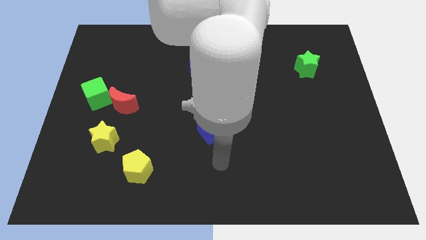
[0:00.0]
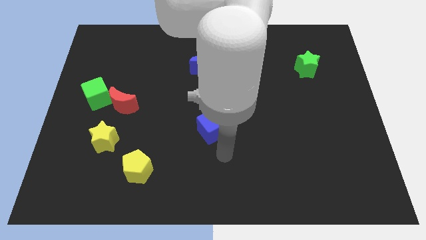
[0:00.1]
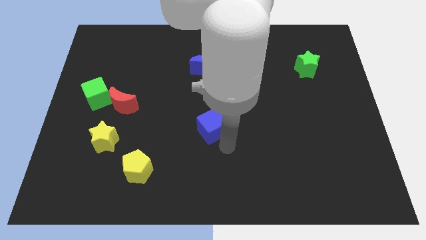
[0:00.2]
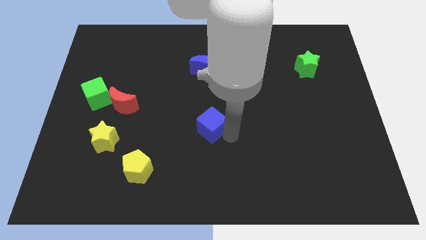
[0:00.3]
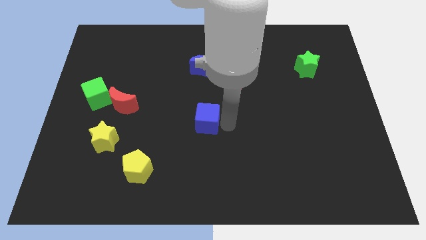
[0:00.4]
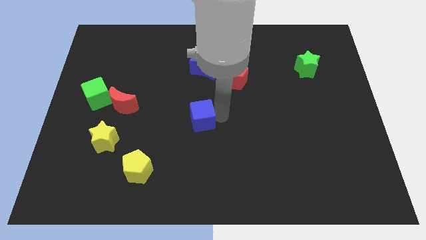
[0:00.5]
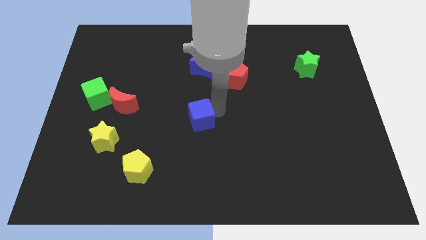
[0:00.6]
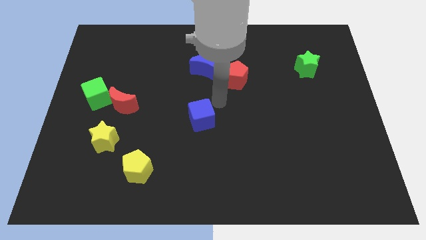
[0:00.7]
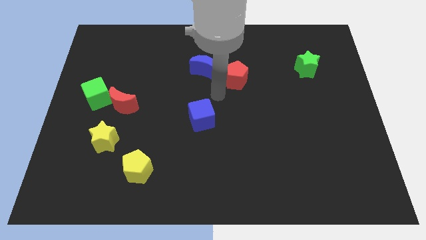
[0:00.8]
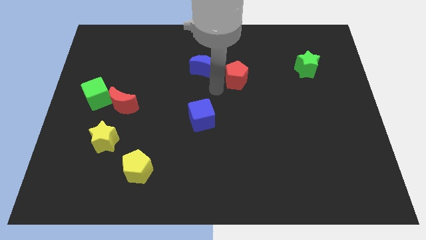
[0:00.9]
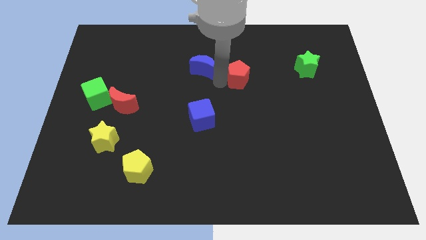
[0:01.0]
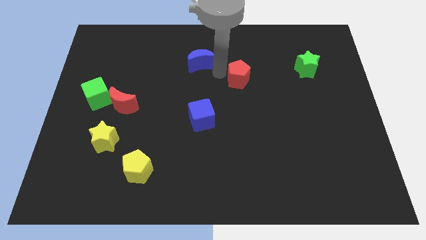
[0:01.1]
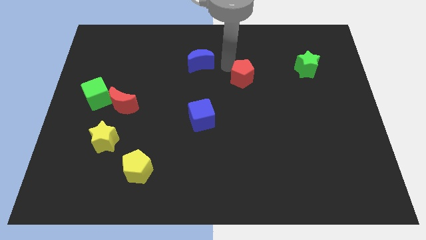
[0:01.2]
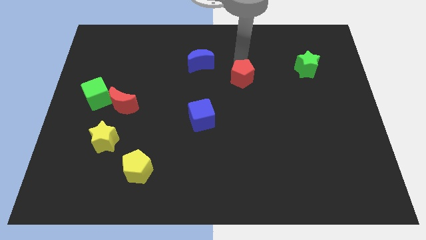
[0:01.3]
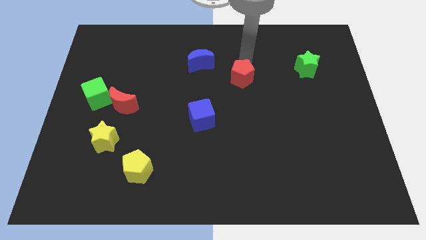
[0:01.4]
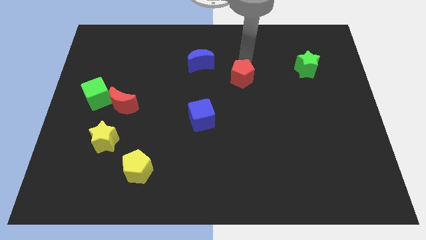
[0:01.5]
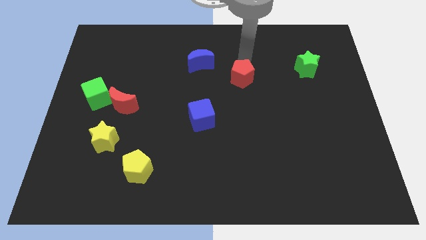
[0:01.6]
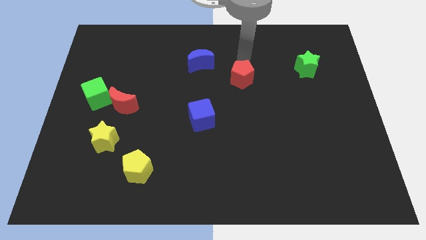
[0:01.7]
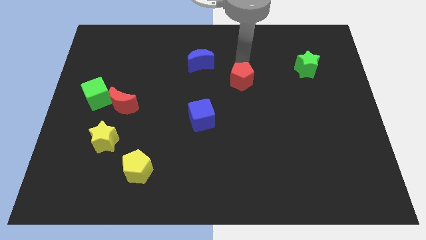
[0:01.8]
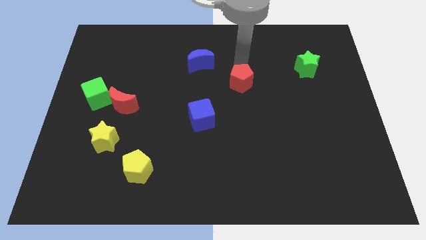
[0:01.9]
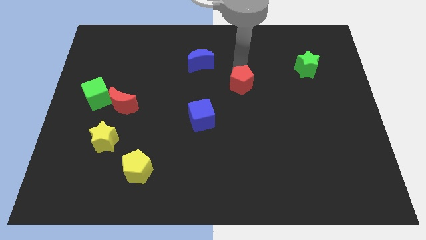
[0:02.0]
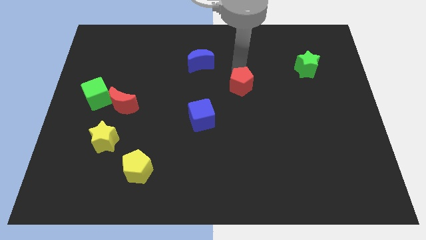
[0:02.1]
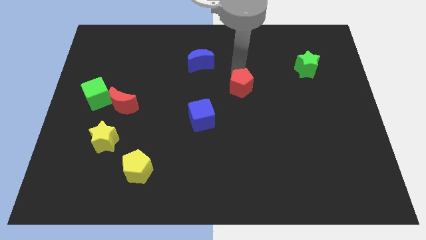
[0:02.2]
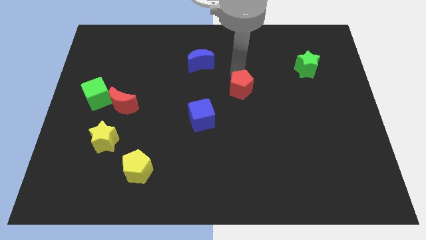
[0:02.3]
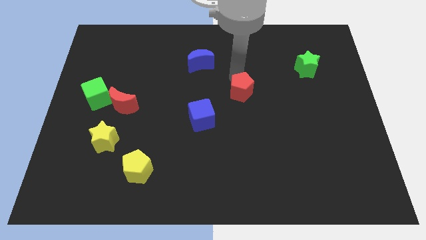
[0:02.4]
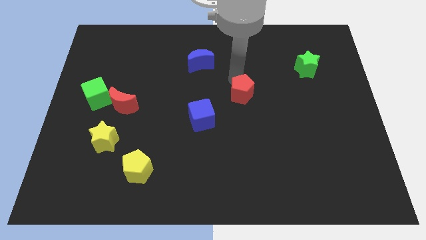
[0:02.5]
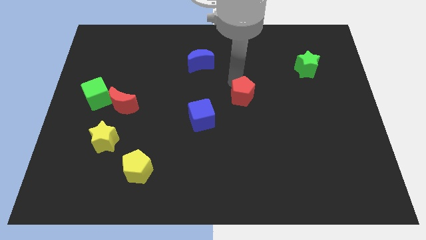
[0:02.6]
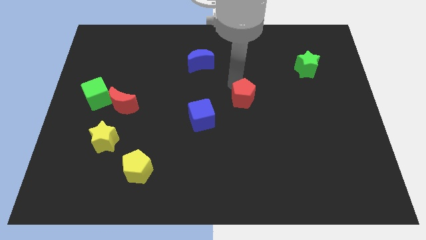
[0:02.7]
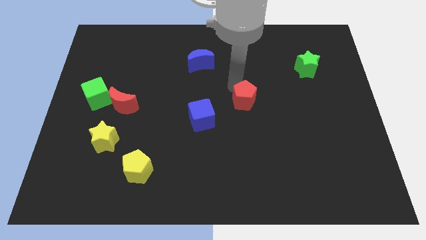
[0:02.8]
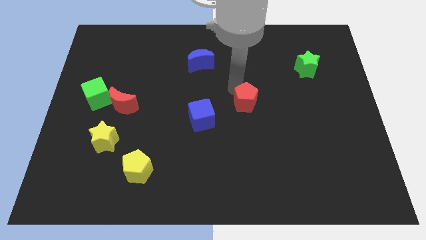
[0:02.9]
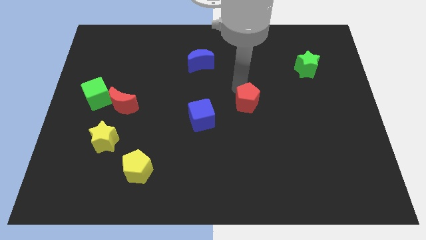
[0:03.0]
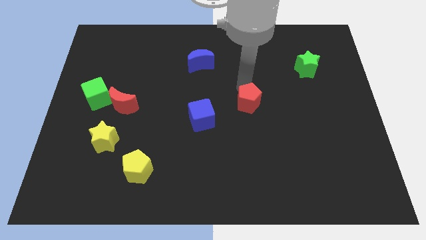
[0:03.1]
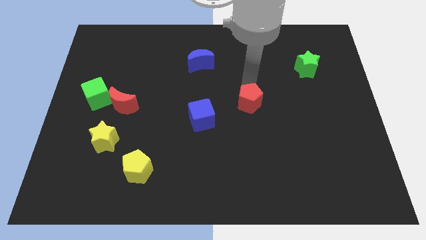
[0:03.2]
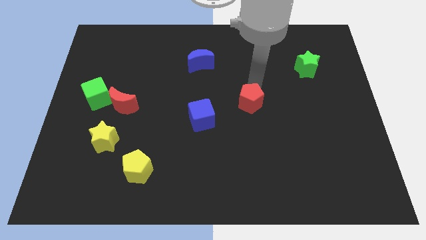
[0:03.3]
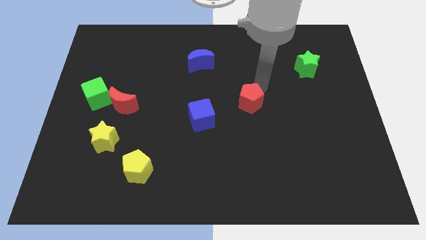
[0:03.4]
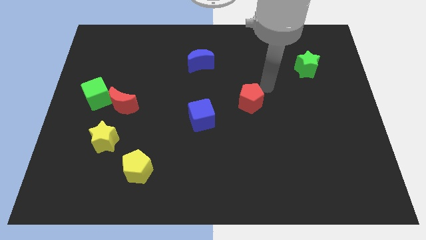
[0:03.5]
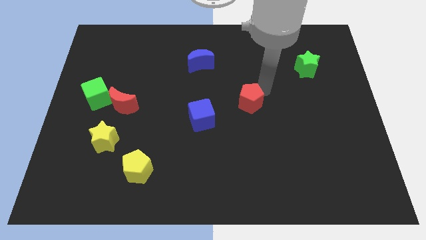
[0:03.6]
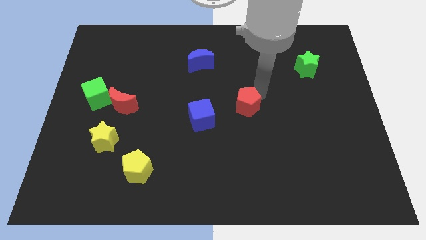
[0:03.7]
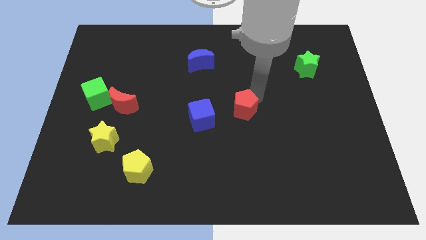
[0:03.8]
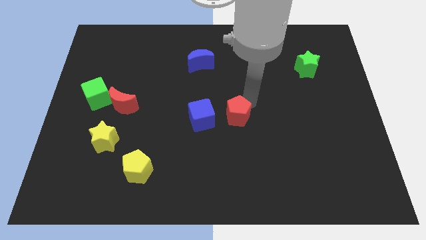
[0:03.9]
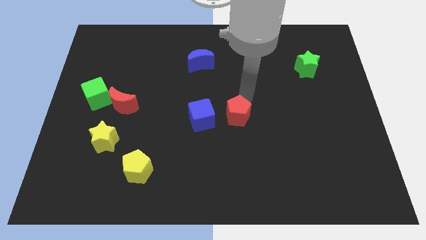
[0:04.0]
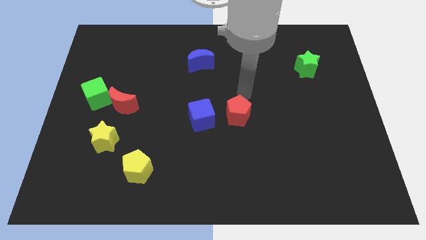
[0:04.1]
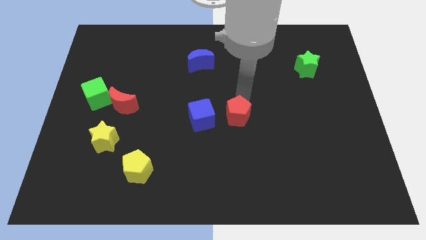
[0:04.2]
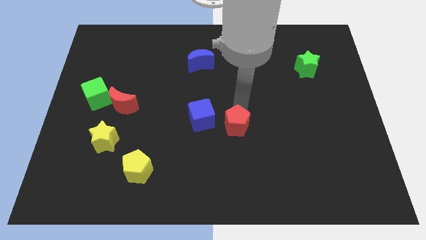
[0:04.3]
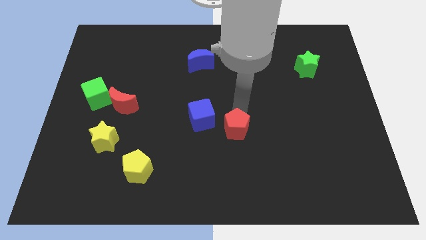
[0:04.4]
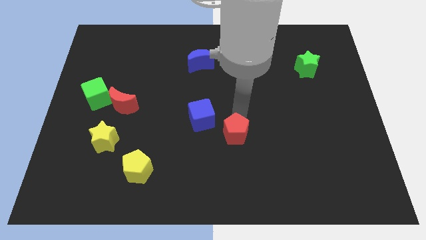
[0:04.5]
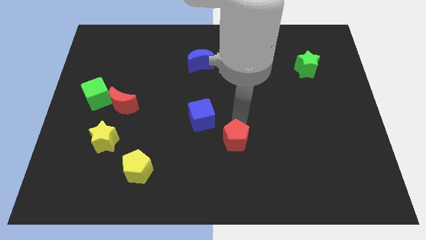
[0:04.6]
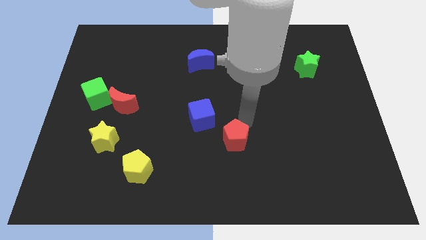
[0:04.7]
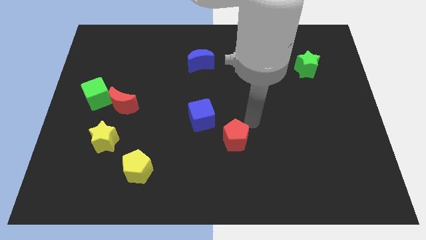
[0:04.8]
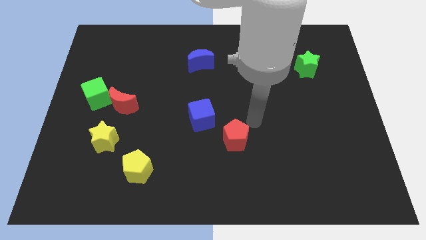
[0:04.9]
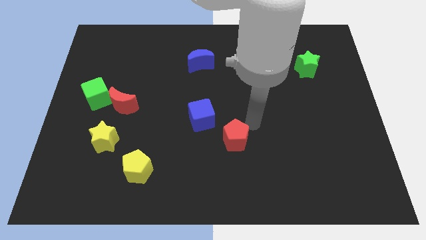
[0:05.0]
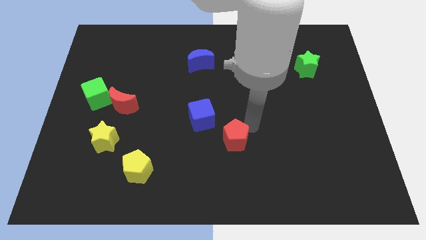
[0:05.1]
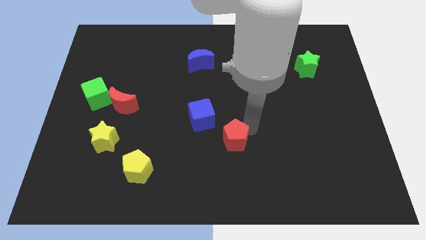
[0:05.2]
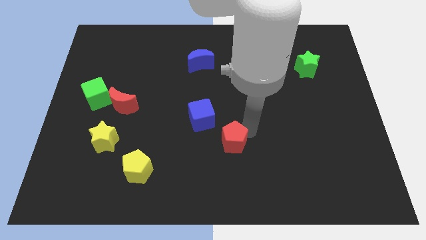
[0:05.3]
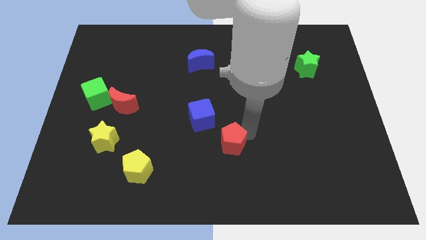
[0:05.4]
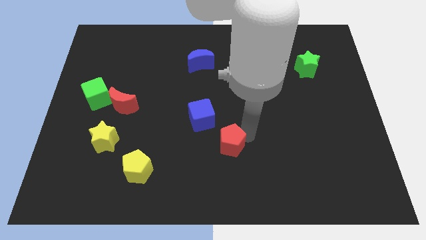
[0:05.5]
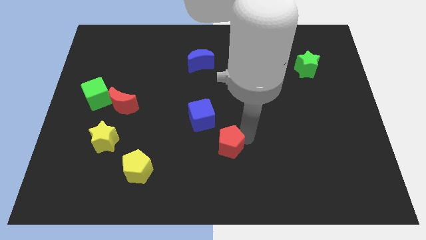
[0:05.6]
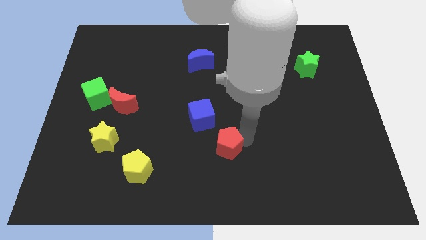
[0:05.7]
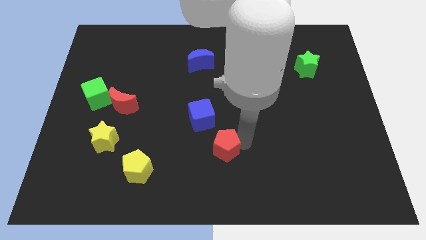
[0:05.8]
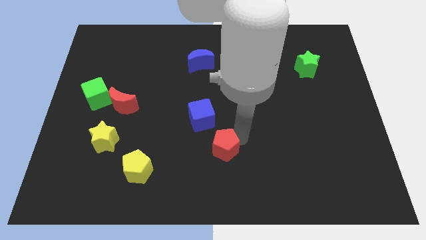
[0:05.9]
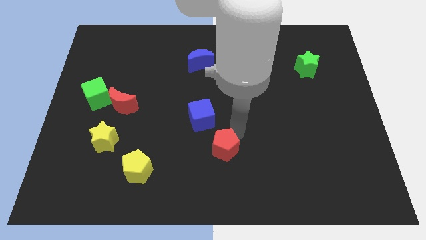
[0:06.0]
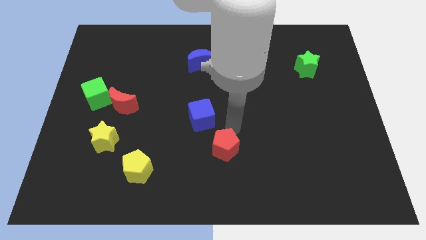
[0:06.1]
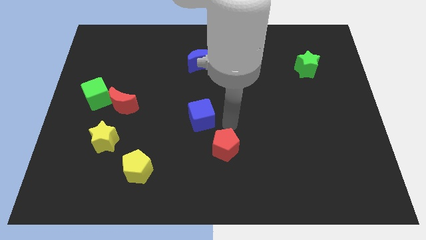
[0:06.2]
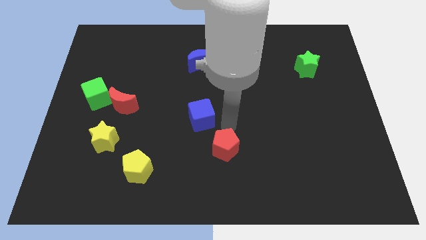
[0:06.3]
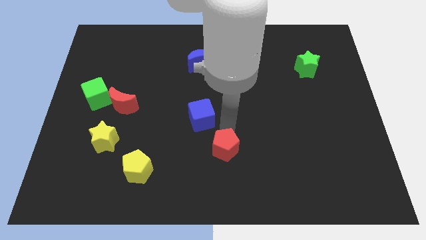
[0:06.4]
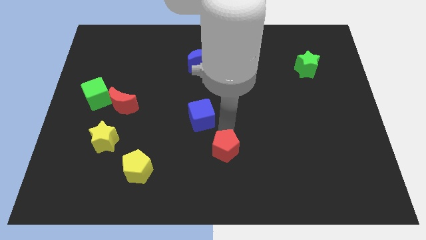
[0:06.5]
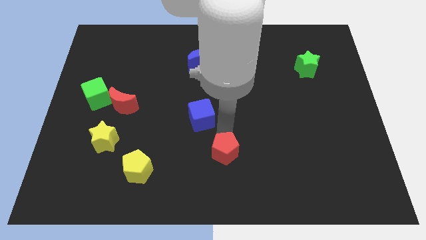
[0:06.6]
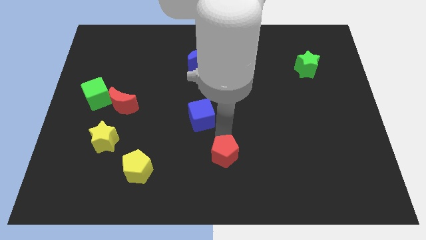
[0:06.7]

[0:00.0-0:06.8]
slide the red pentagon to the bottom
